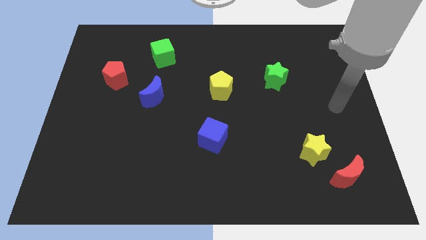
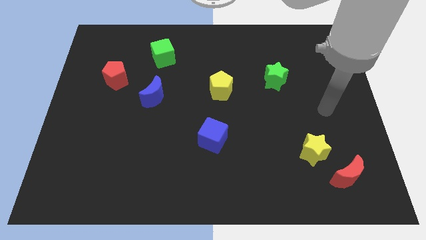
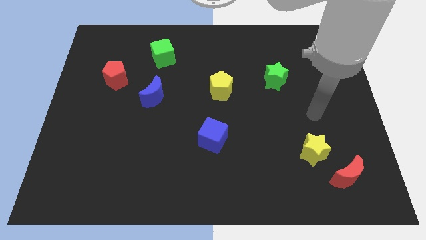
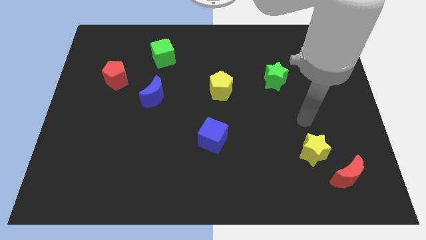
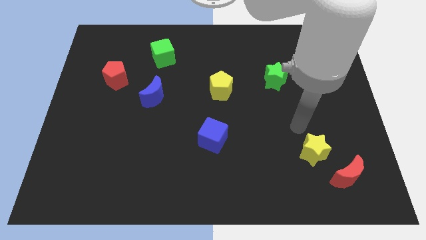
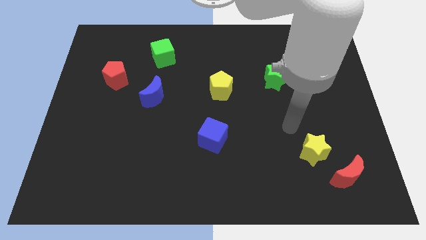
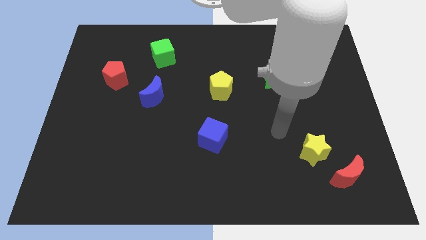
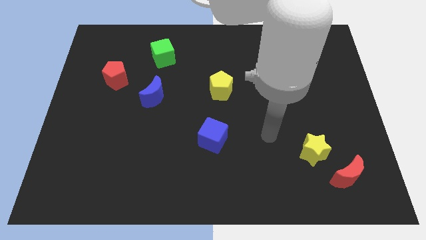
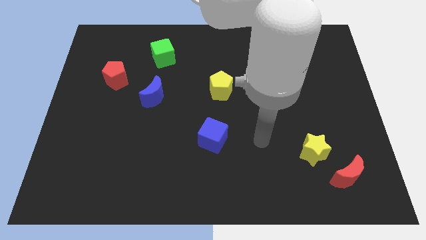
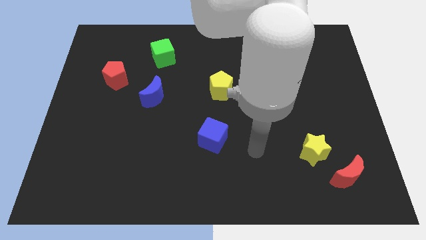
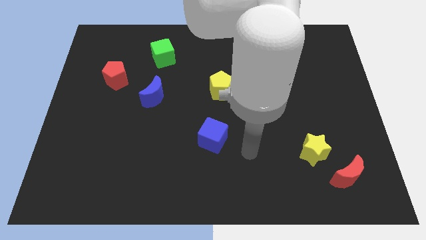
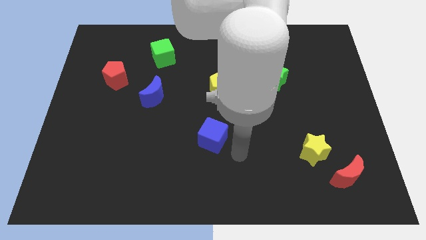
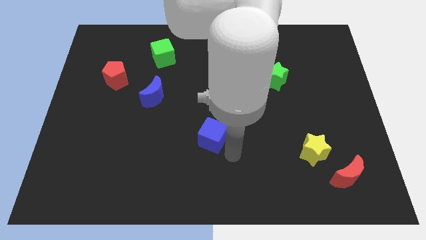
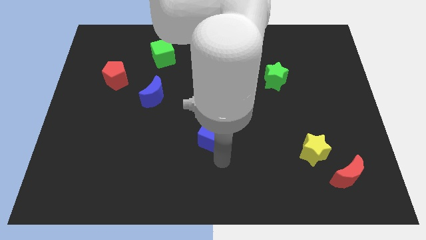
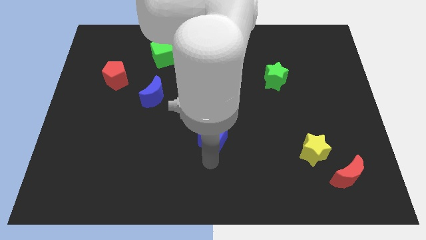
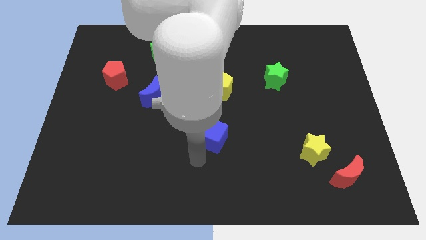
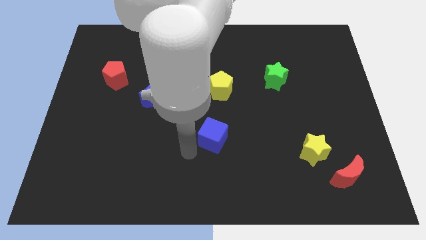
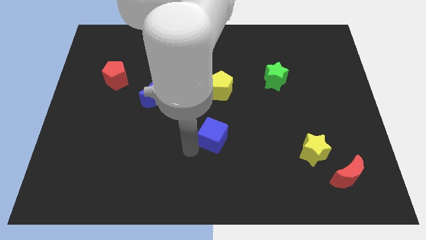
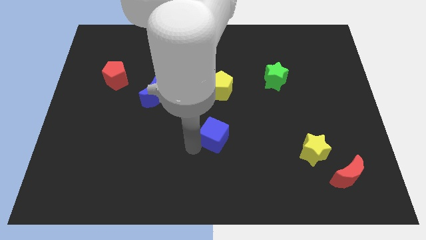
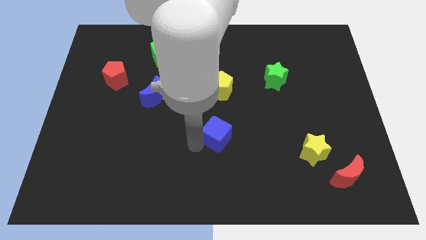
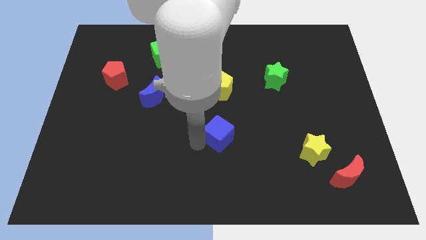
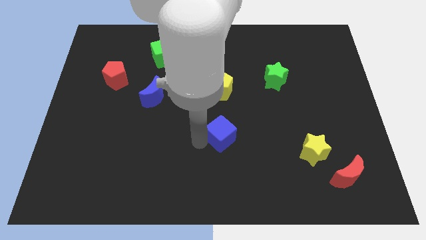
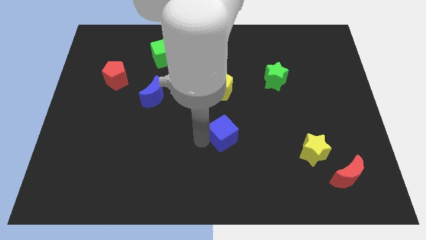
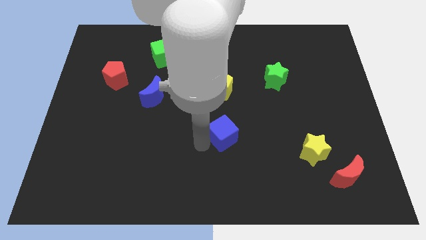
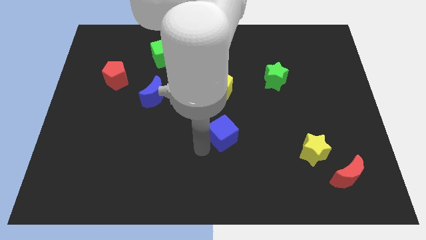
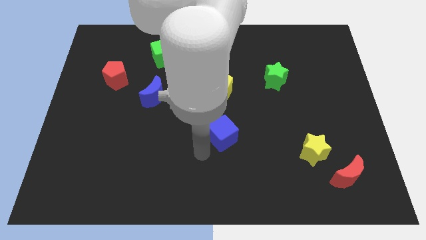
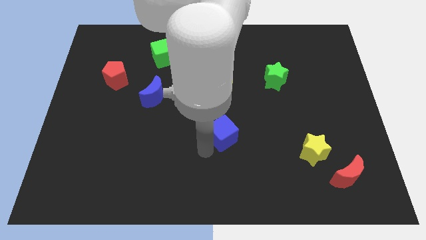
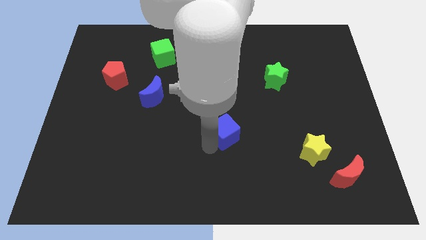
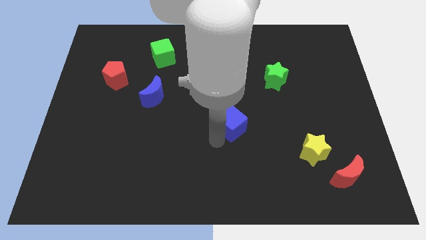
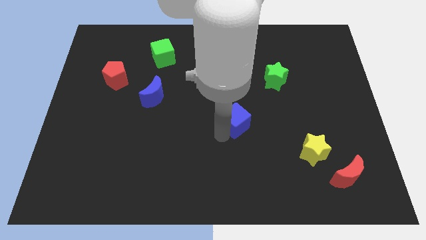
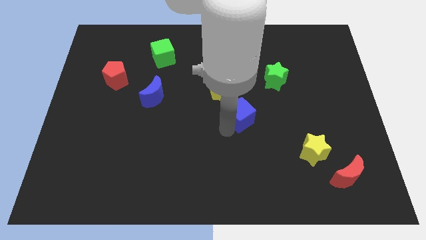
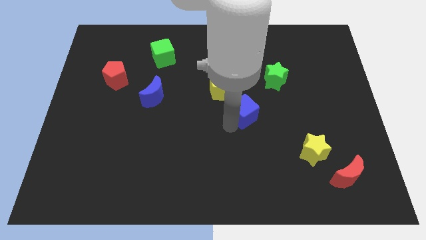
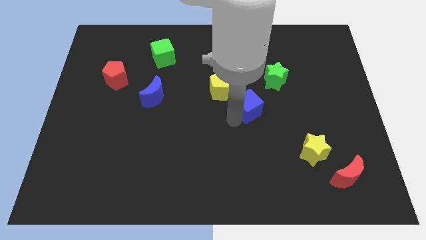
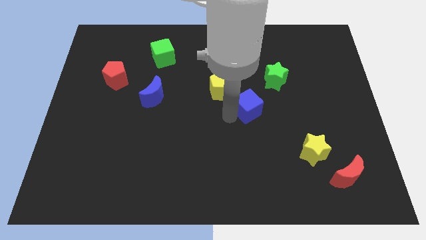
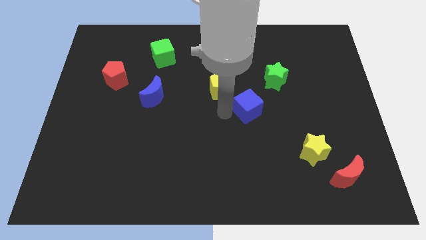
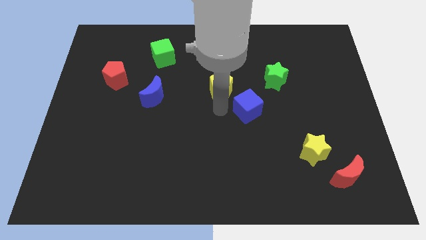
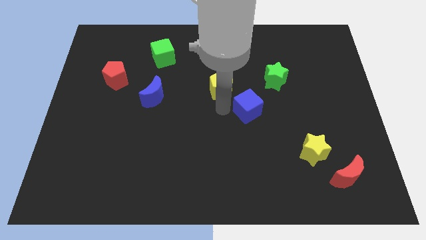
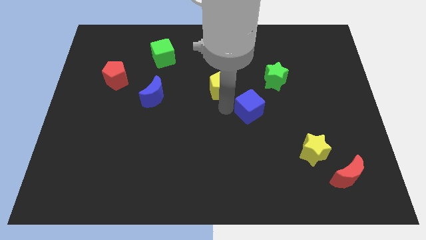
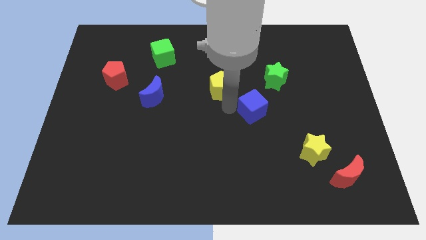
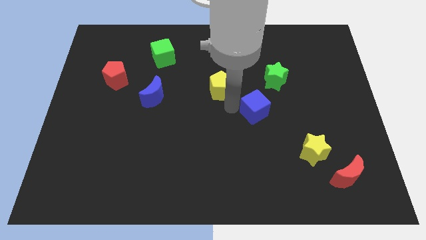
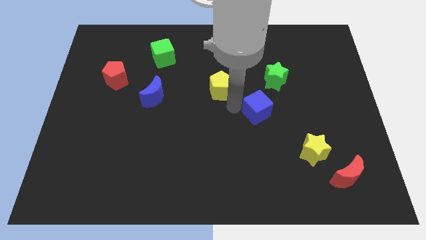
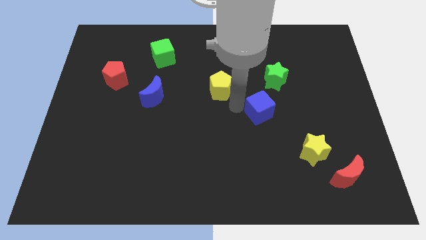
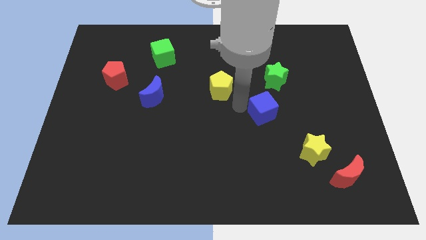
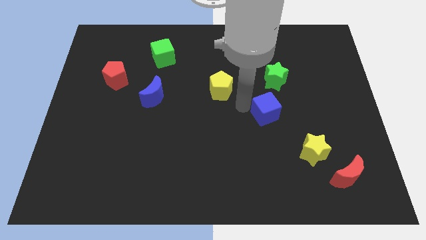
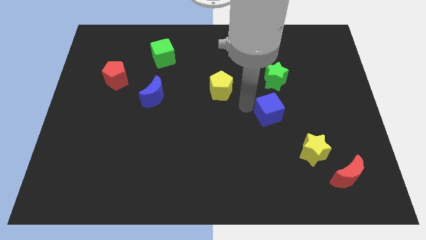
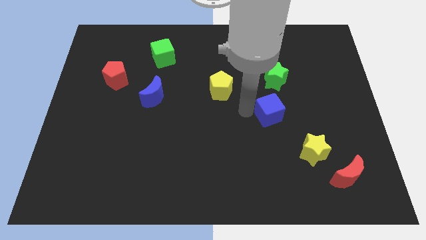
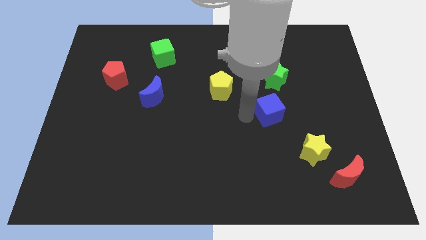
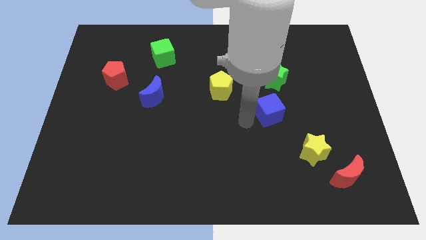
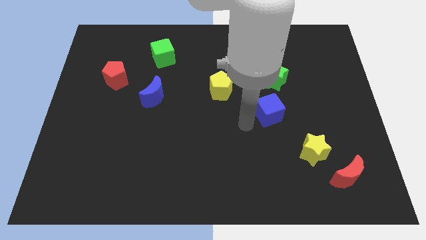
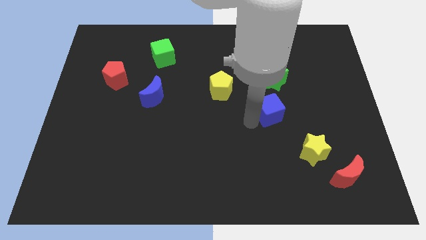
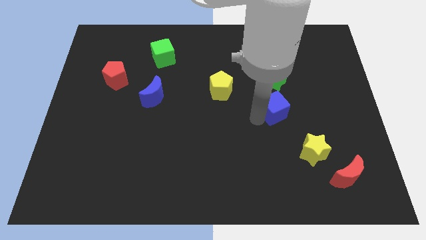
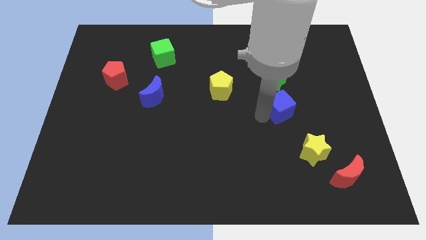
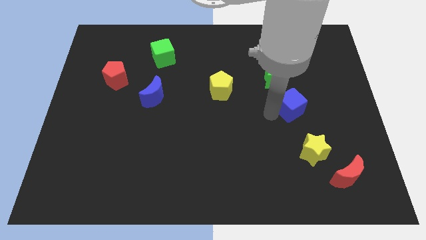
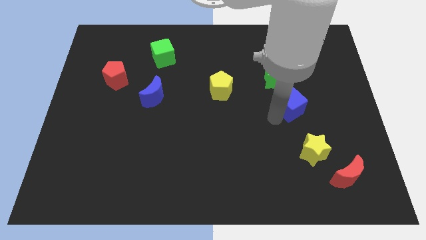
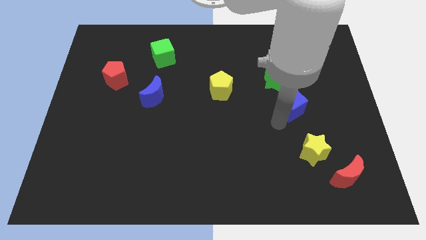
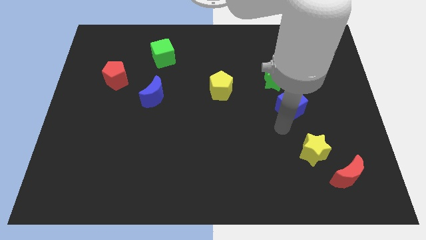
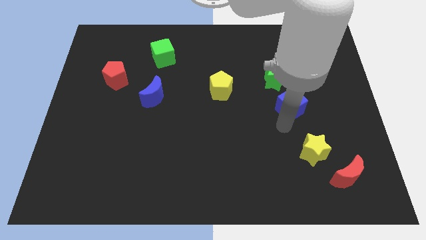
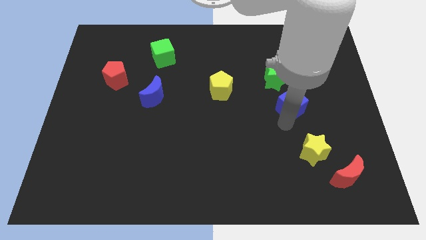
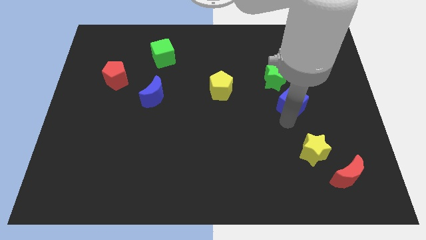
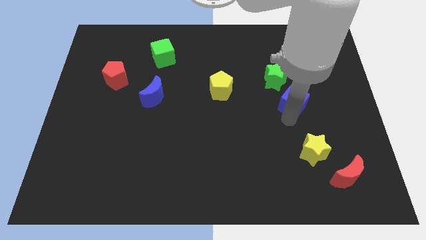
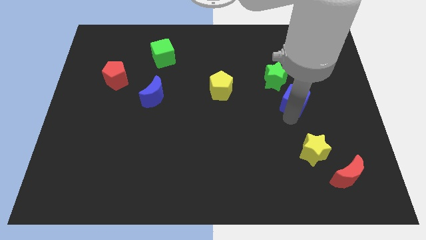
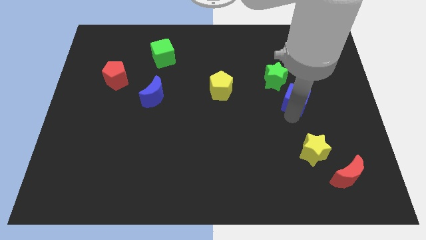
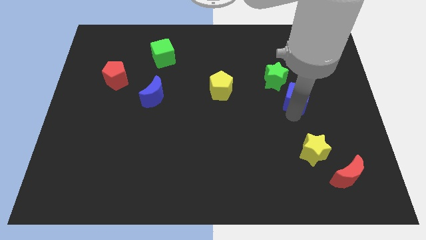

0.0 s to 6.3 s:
move the blue cube up and to the right

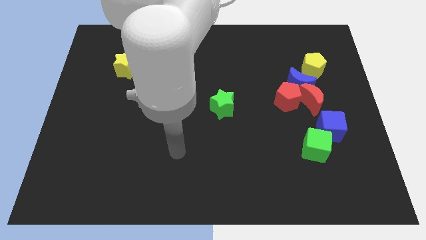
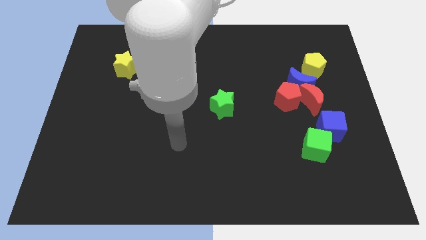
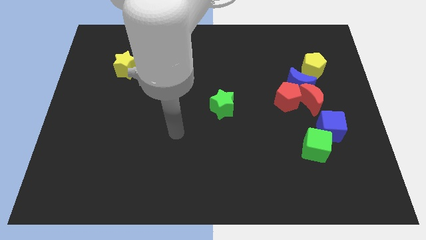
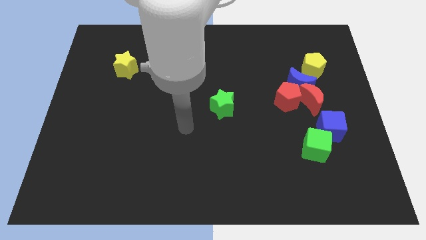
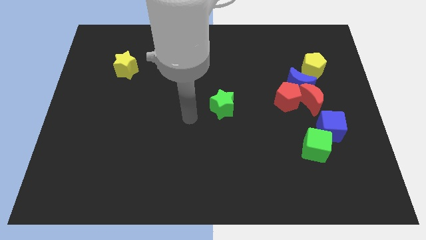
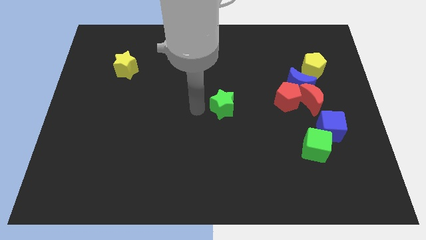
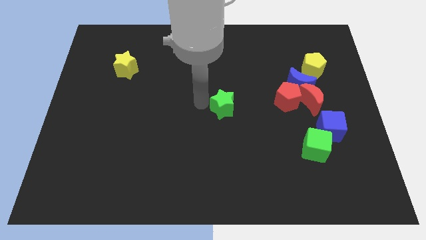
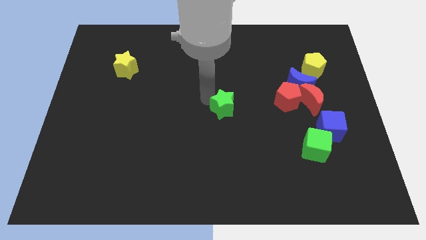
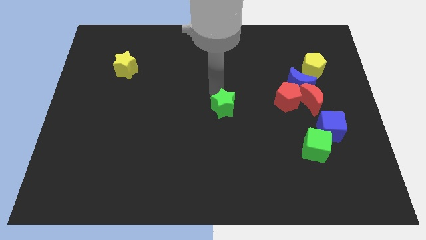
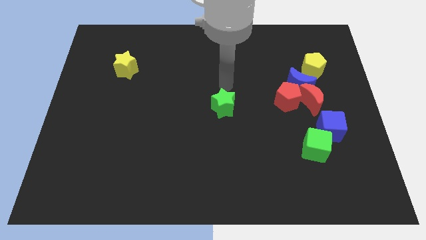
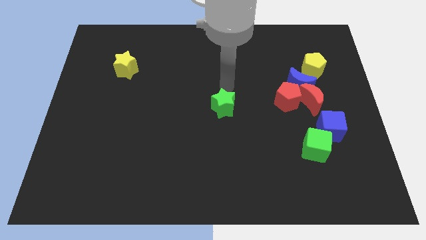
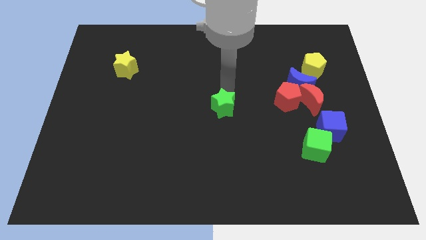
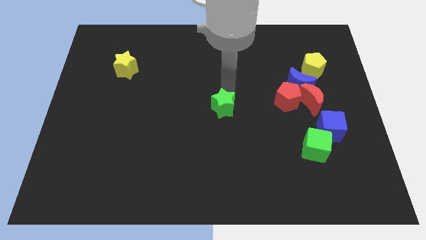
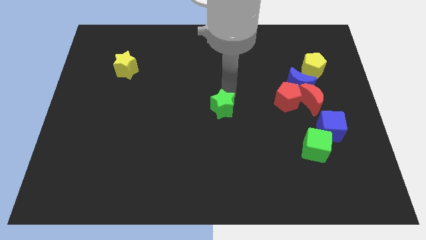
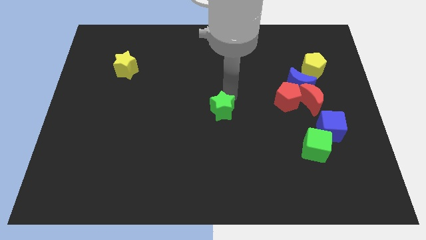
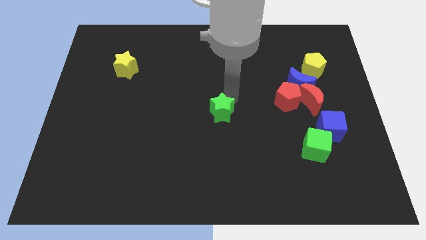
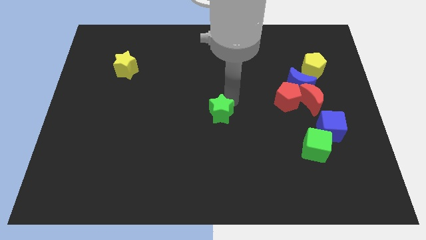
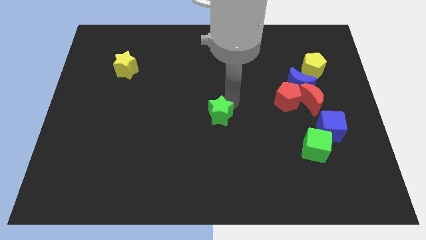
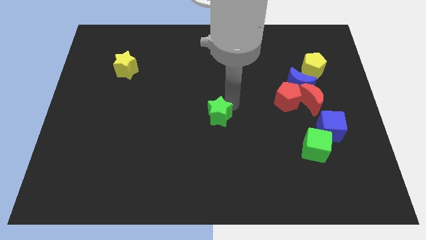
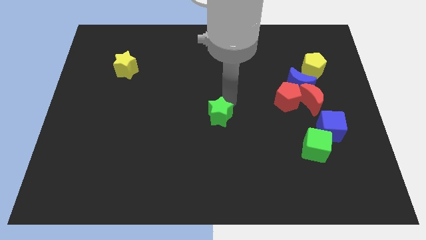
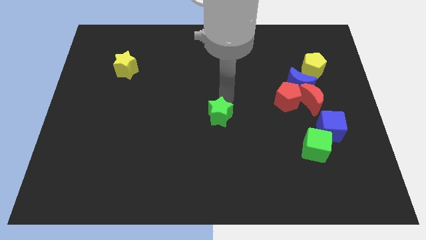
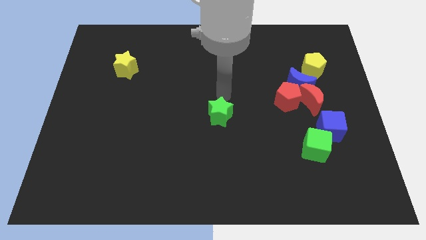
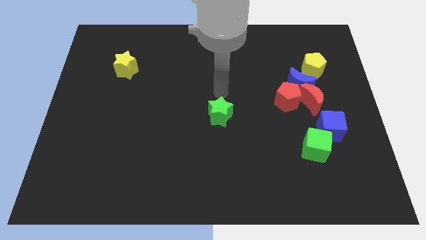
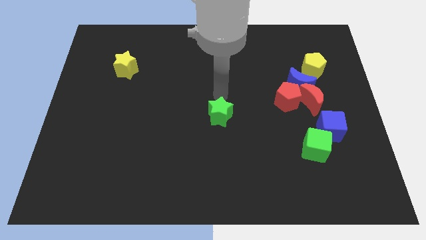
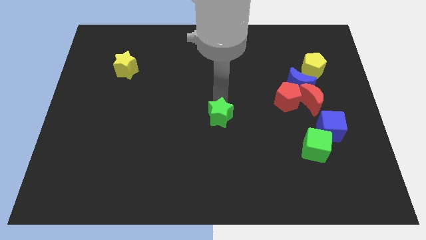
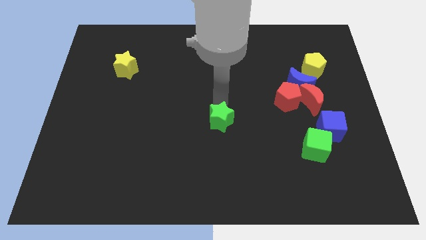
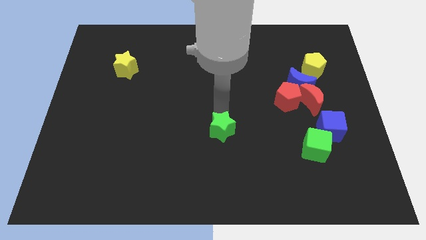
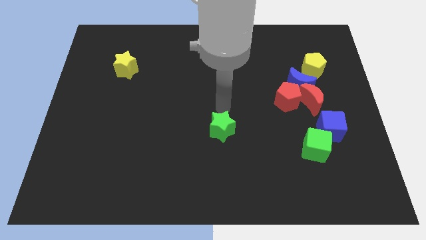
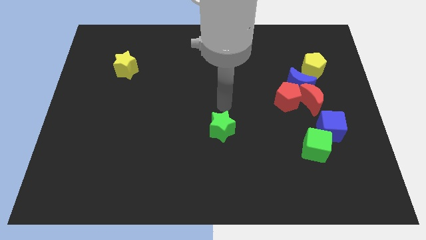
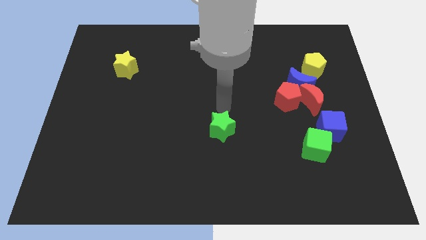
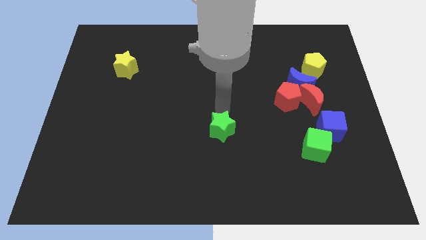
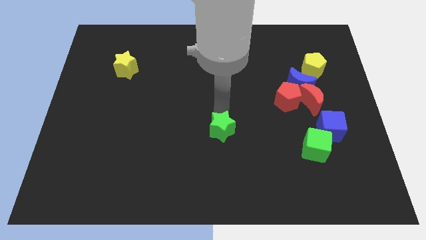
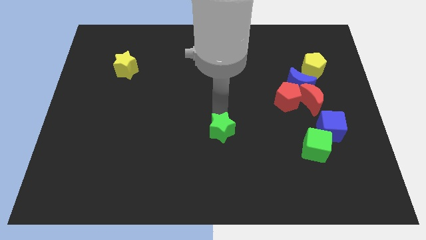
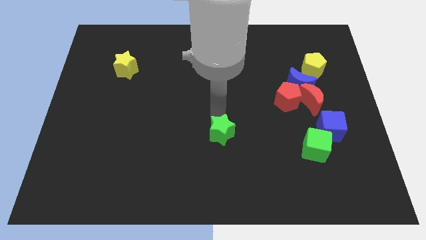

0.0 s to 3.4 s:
slightly move the green star down
